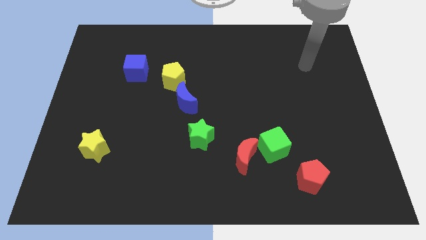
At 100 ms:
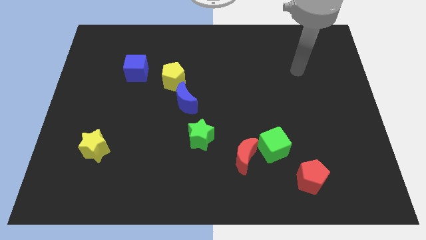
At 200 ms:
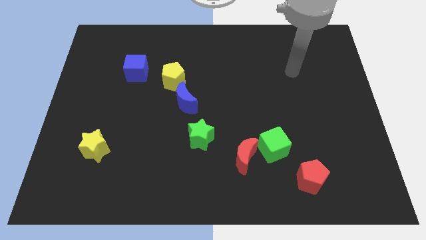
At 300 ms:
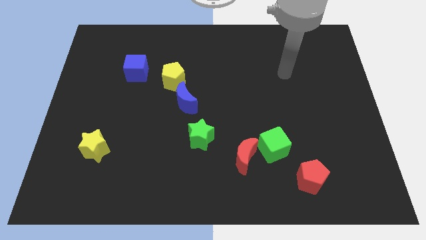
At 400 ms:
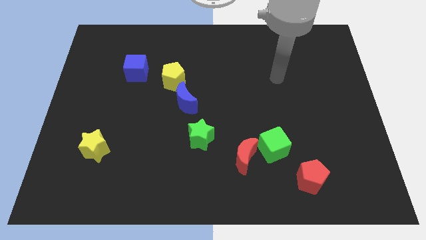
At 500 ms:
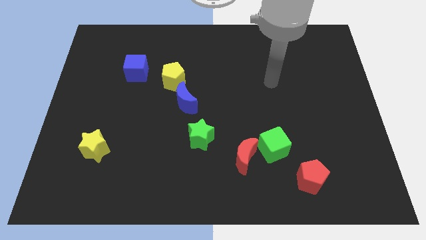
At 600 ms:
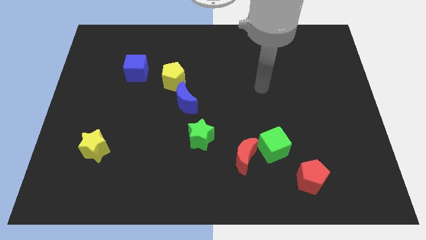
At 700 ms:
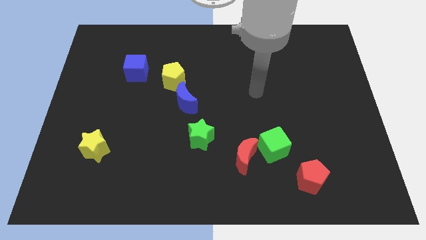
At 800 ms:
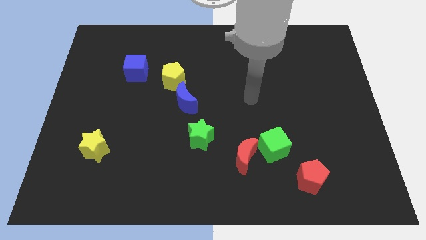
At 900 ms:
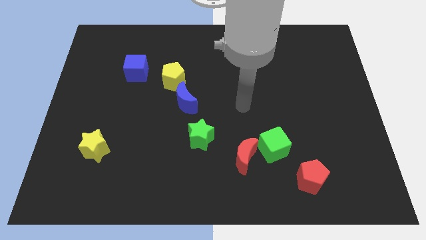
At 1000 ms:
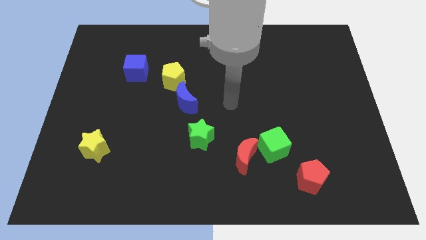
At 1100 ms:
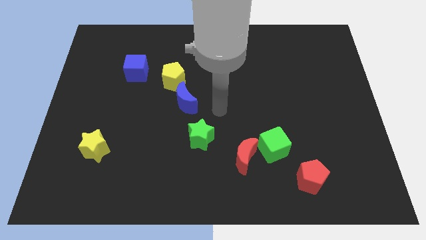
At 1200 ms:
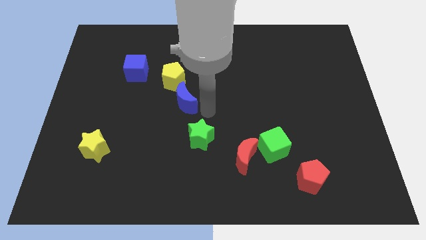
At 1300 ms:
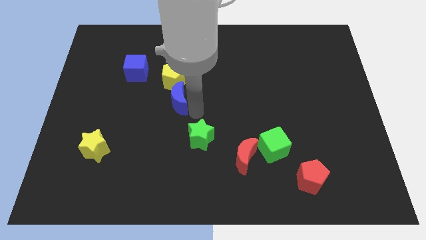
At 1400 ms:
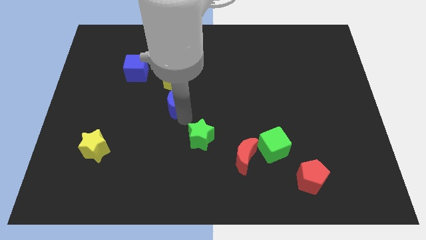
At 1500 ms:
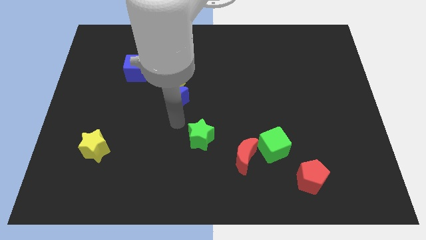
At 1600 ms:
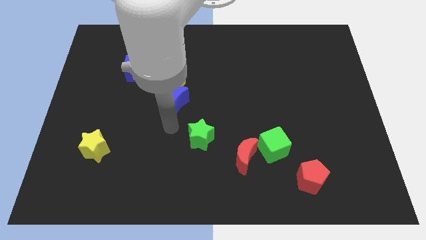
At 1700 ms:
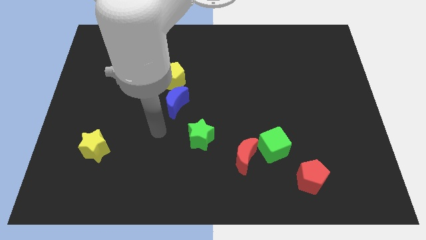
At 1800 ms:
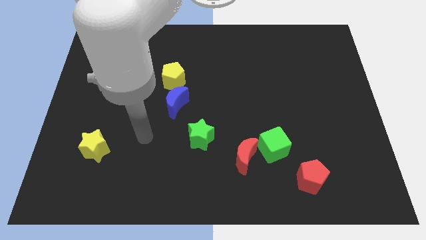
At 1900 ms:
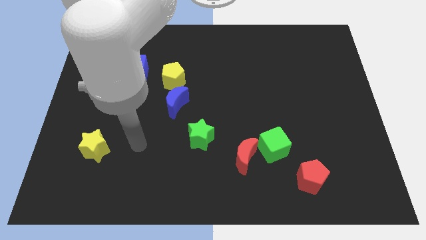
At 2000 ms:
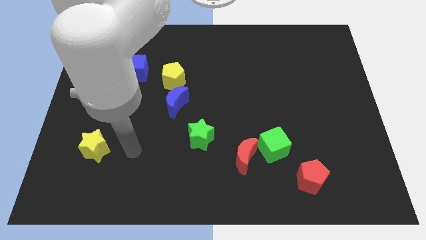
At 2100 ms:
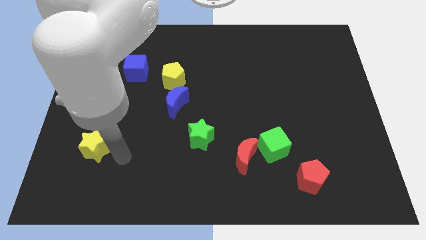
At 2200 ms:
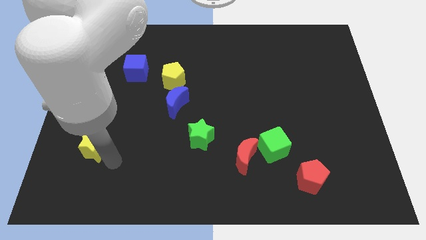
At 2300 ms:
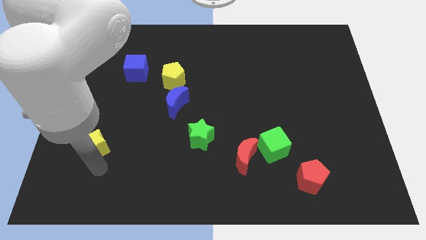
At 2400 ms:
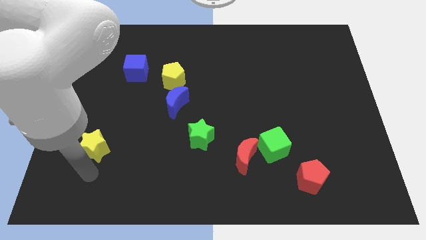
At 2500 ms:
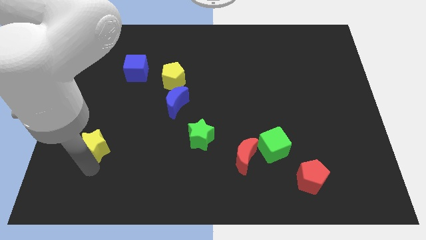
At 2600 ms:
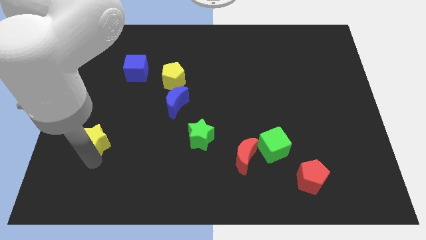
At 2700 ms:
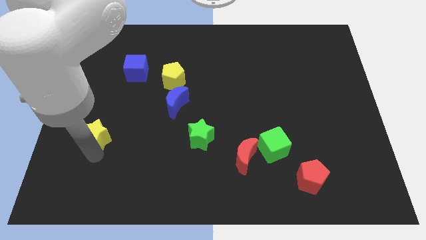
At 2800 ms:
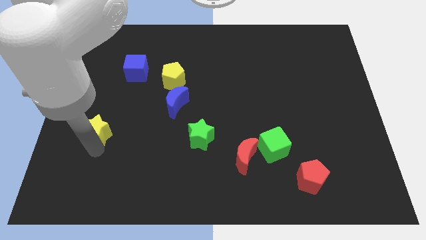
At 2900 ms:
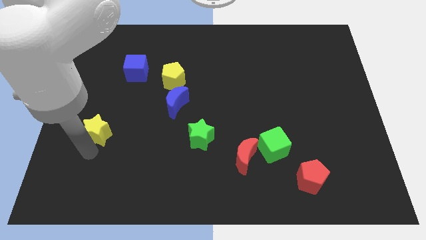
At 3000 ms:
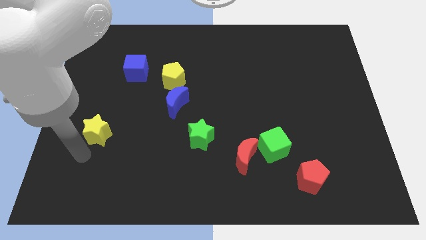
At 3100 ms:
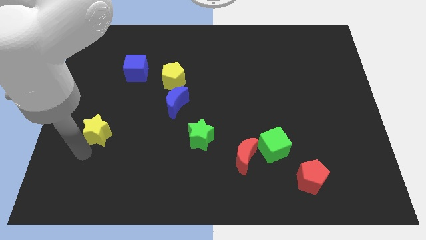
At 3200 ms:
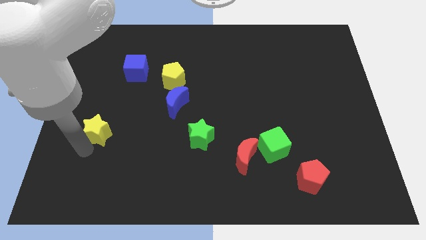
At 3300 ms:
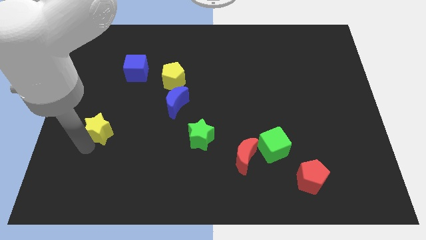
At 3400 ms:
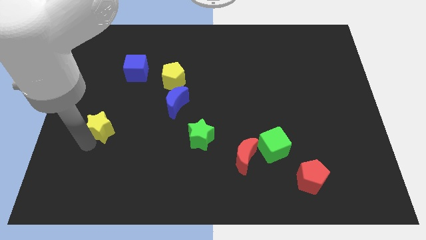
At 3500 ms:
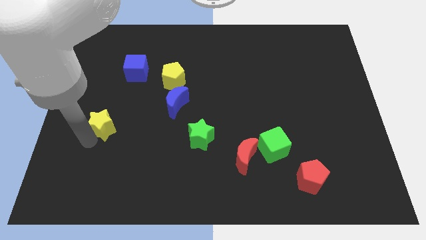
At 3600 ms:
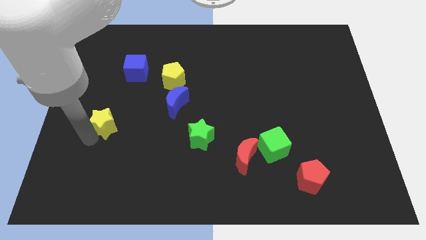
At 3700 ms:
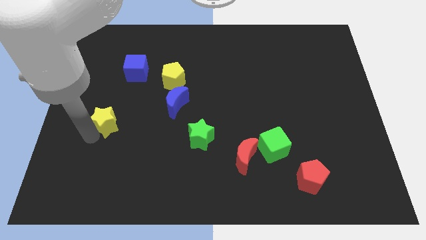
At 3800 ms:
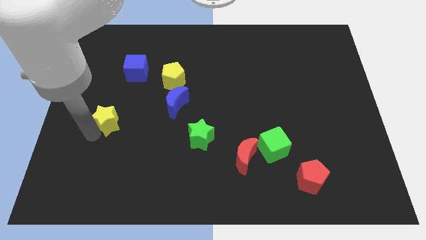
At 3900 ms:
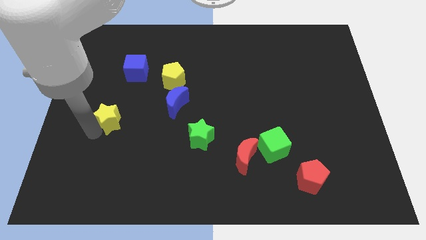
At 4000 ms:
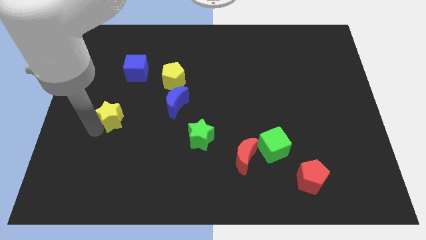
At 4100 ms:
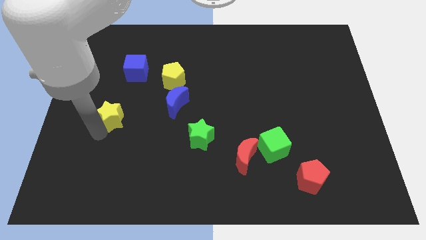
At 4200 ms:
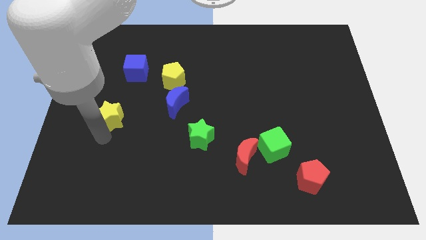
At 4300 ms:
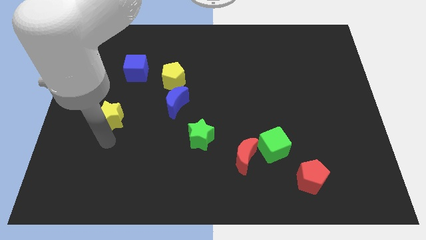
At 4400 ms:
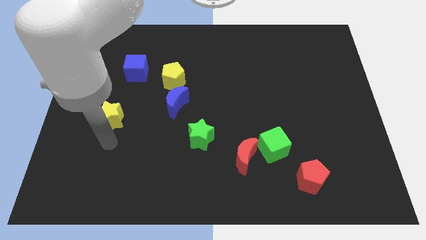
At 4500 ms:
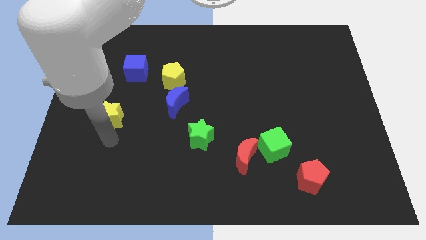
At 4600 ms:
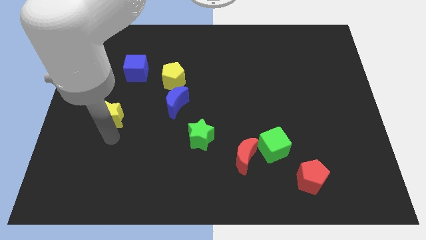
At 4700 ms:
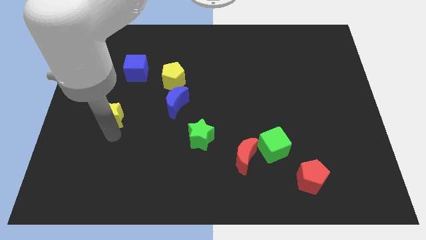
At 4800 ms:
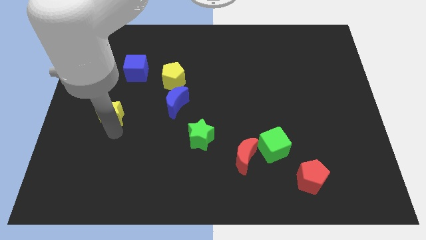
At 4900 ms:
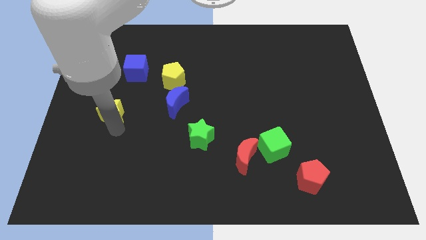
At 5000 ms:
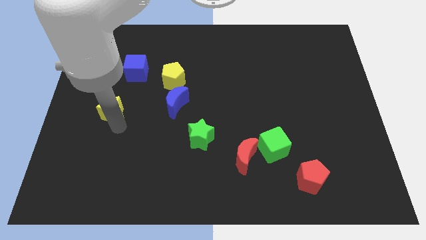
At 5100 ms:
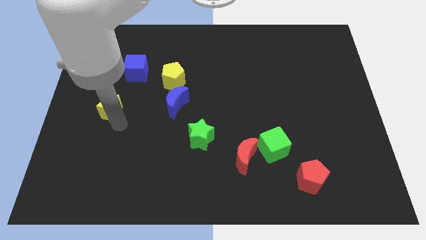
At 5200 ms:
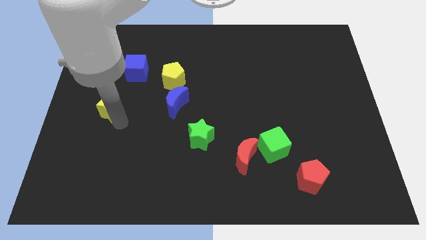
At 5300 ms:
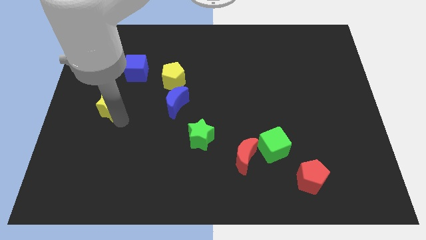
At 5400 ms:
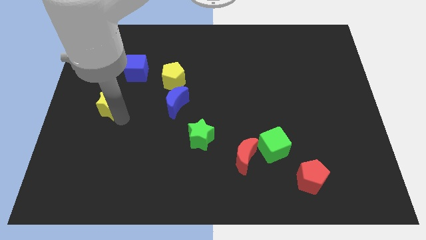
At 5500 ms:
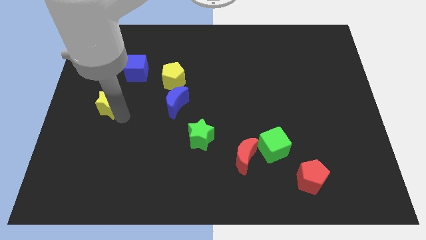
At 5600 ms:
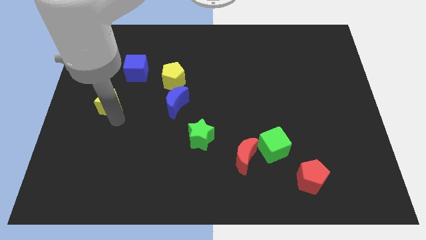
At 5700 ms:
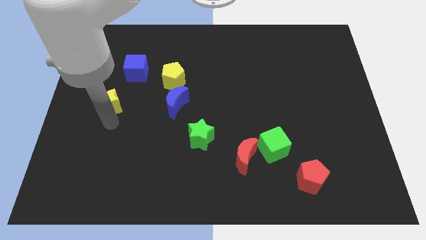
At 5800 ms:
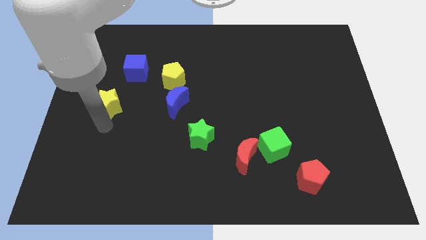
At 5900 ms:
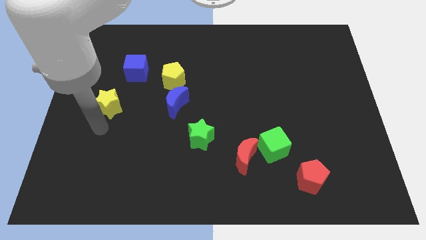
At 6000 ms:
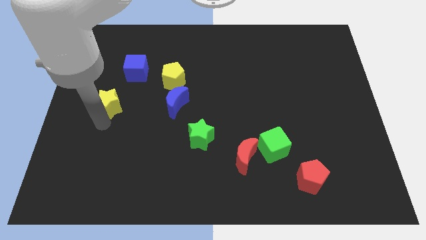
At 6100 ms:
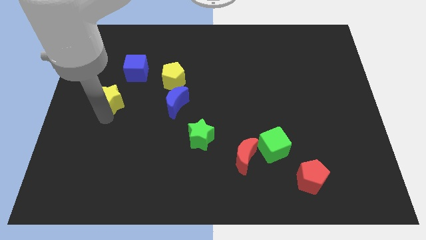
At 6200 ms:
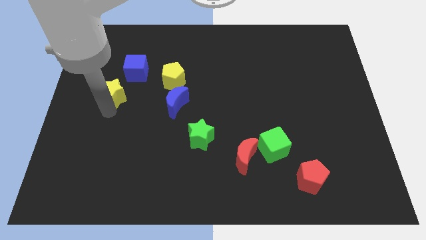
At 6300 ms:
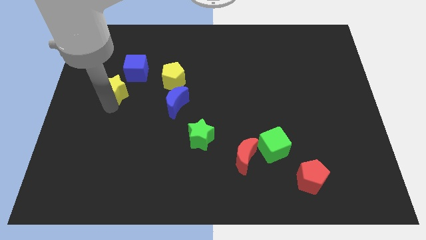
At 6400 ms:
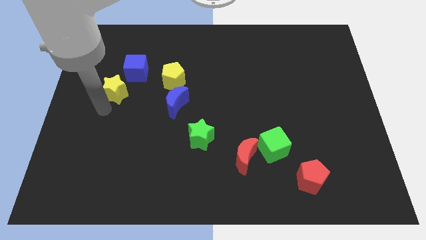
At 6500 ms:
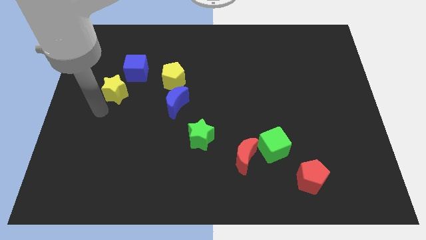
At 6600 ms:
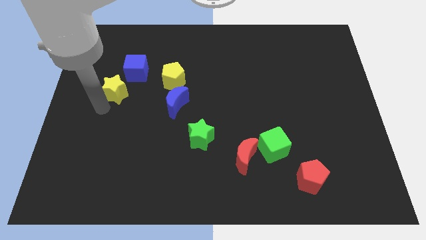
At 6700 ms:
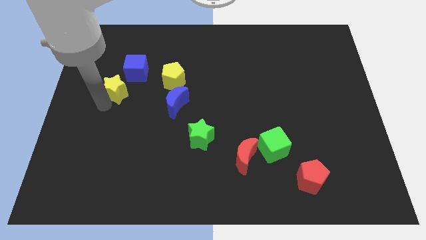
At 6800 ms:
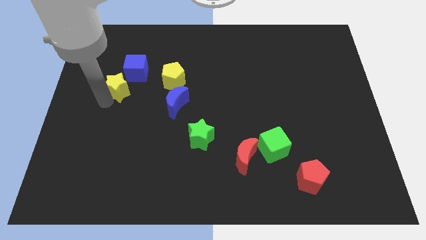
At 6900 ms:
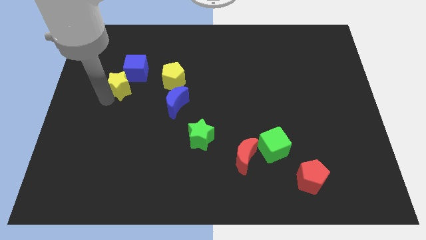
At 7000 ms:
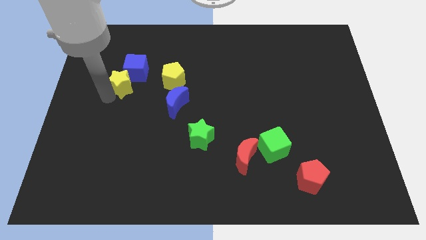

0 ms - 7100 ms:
slide the yellow star to the blue cube

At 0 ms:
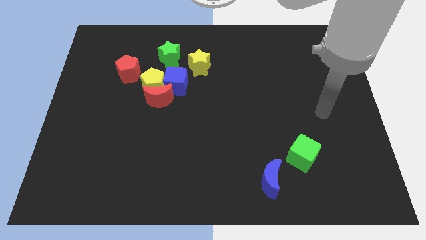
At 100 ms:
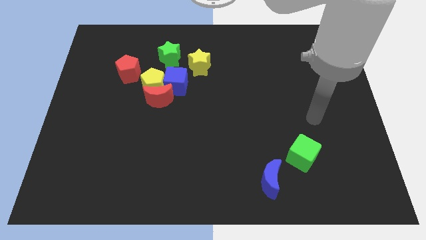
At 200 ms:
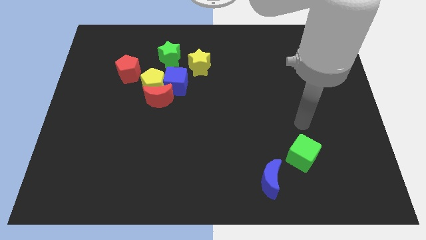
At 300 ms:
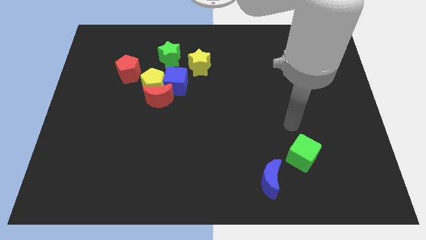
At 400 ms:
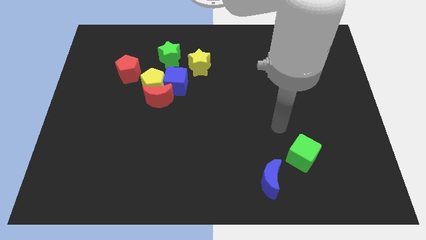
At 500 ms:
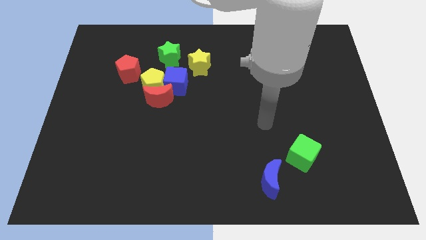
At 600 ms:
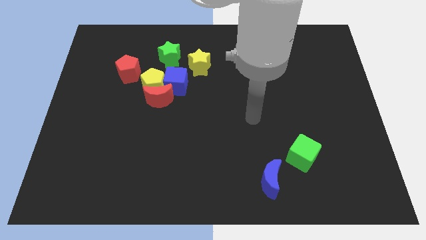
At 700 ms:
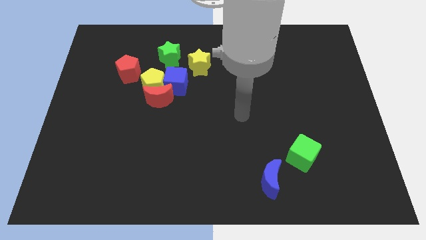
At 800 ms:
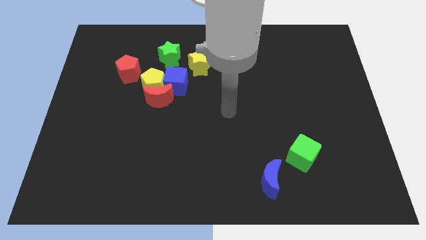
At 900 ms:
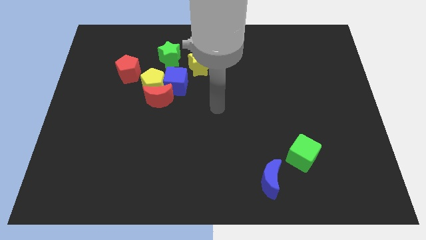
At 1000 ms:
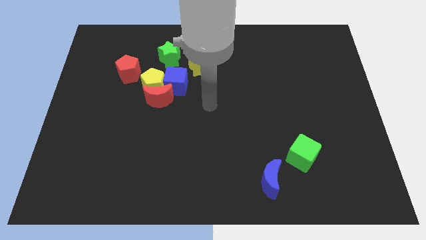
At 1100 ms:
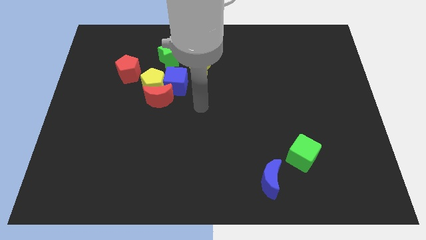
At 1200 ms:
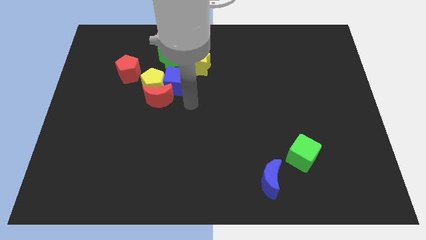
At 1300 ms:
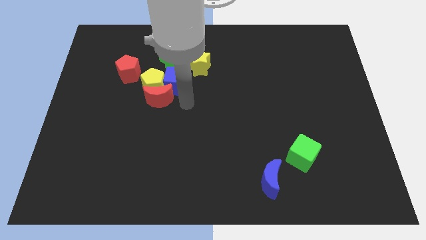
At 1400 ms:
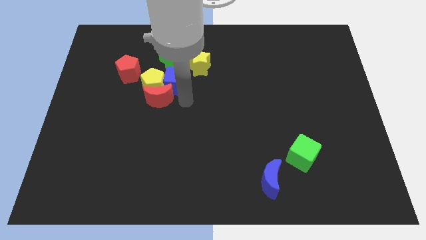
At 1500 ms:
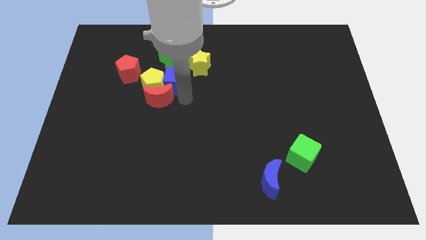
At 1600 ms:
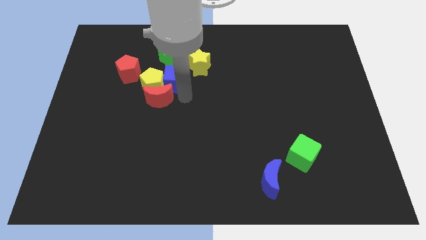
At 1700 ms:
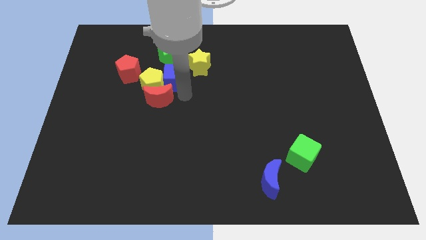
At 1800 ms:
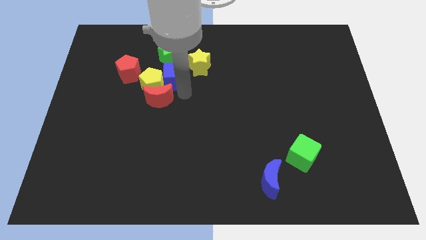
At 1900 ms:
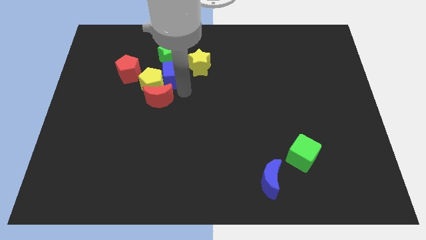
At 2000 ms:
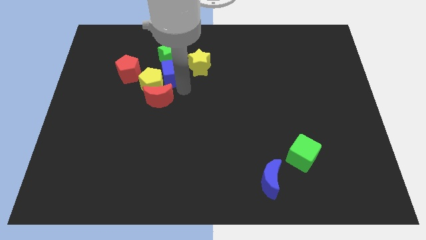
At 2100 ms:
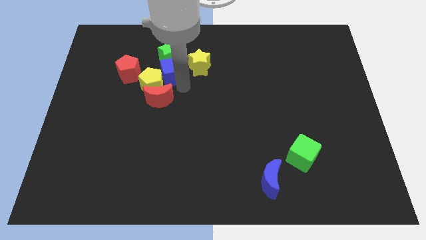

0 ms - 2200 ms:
push the blue cube to the green star
